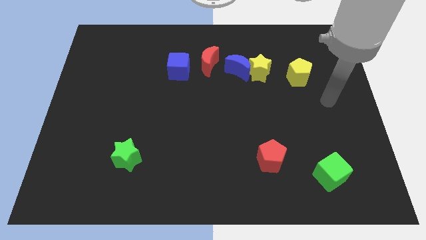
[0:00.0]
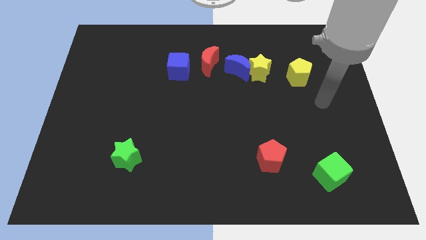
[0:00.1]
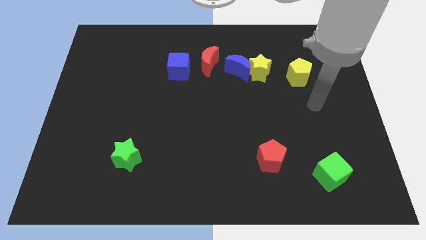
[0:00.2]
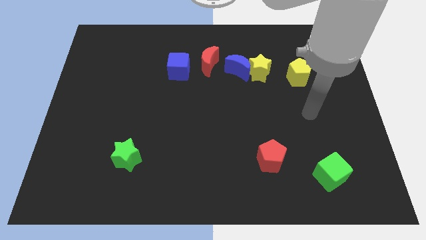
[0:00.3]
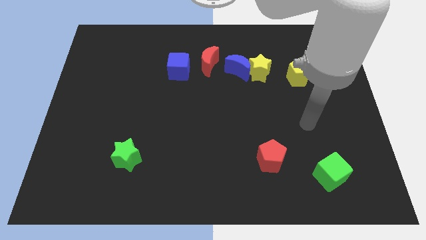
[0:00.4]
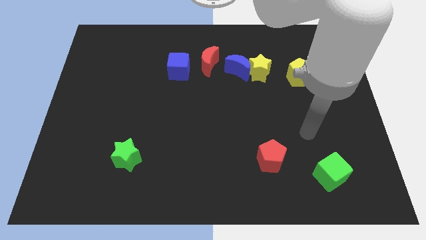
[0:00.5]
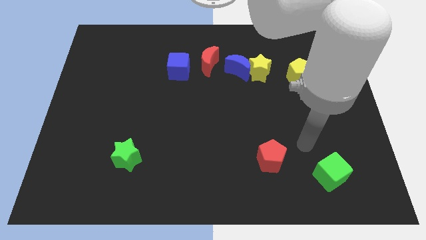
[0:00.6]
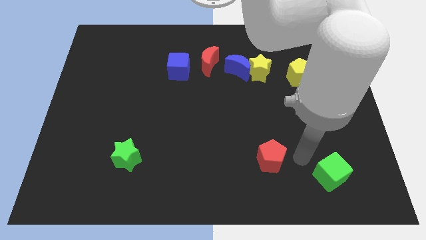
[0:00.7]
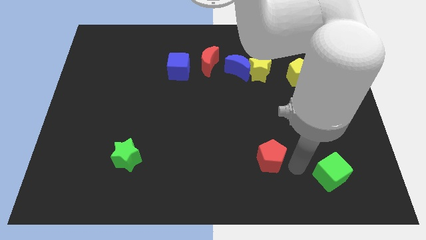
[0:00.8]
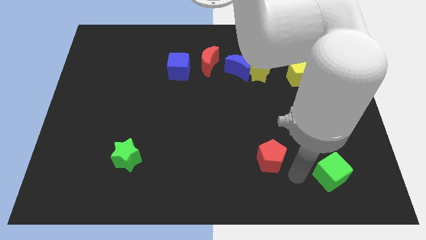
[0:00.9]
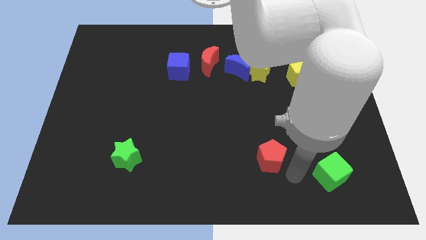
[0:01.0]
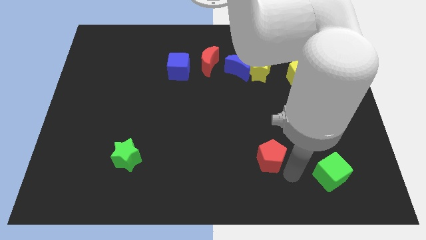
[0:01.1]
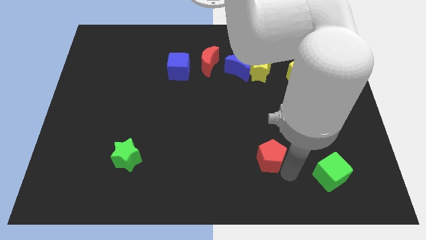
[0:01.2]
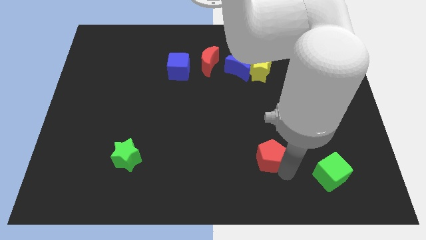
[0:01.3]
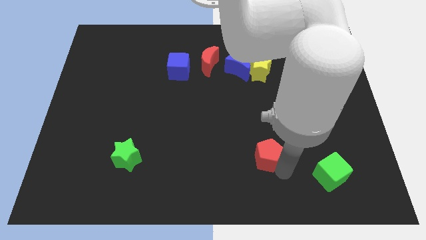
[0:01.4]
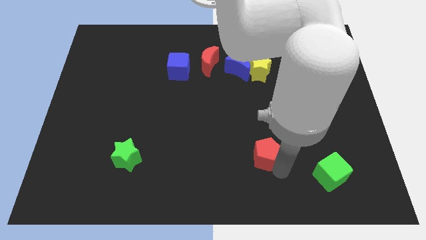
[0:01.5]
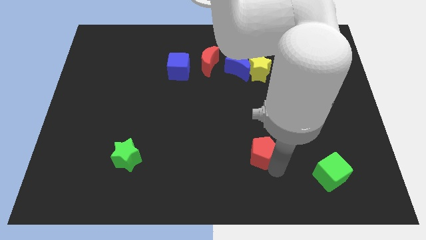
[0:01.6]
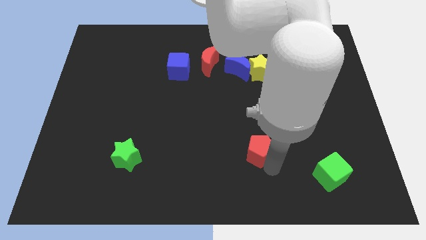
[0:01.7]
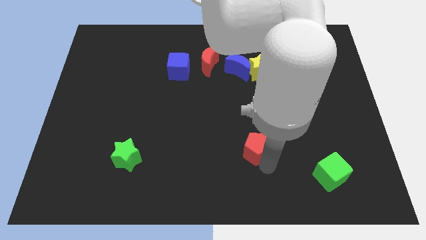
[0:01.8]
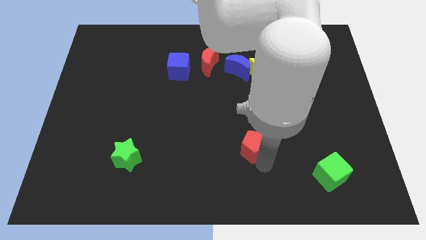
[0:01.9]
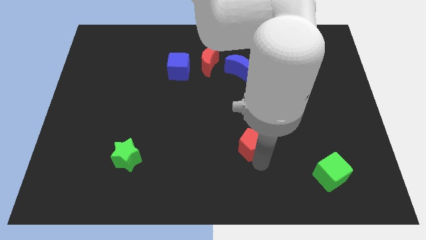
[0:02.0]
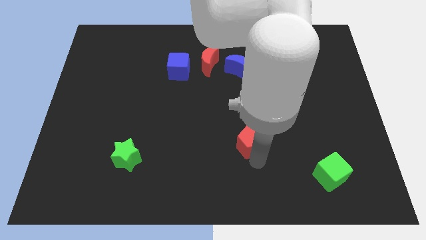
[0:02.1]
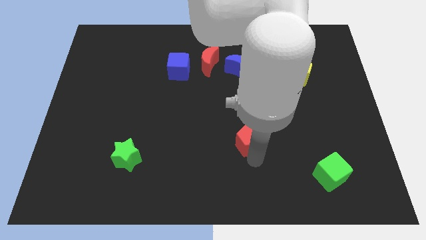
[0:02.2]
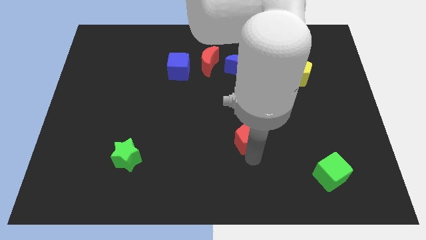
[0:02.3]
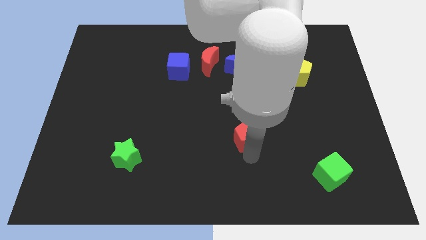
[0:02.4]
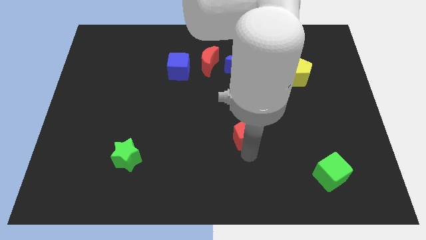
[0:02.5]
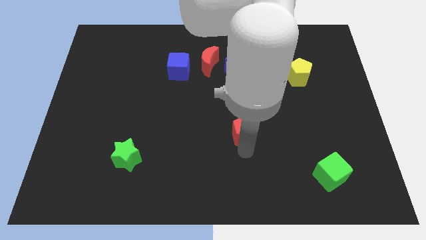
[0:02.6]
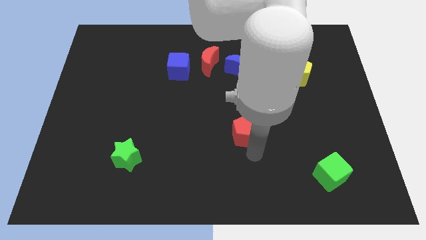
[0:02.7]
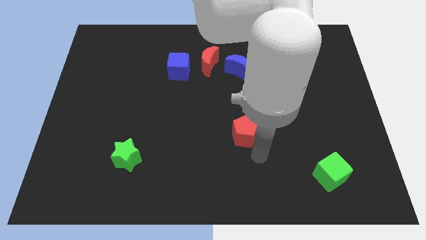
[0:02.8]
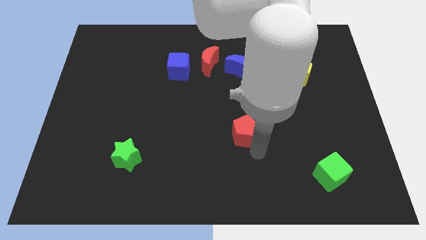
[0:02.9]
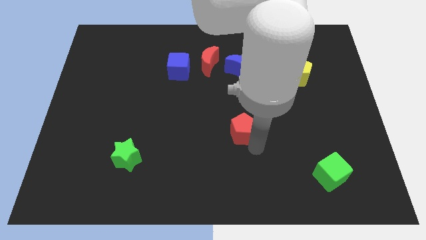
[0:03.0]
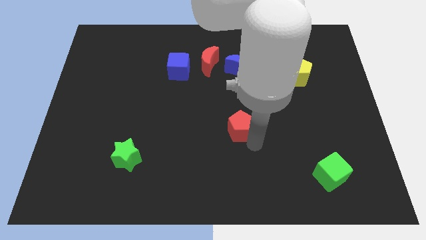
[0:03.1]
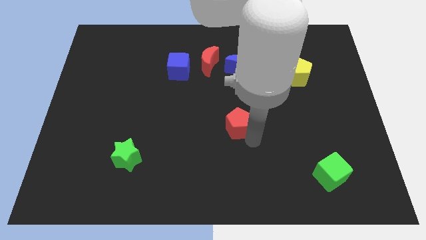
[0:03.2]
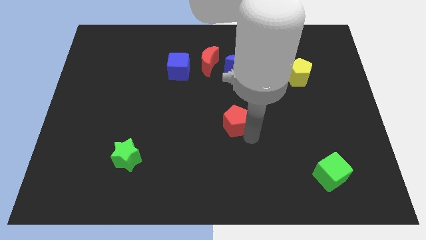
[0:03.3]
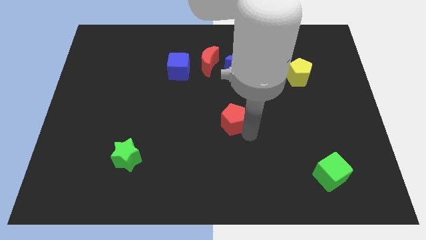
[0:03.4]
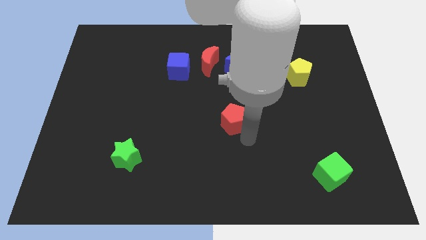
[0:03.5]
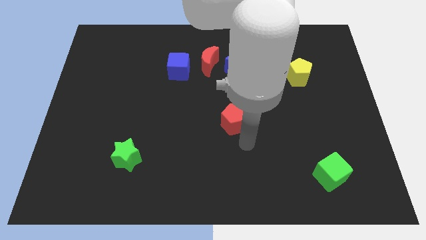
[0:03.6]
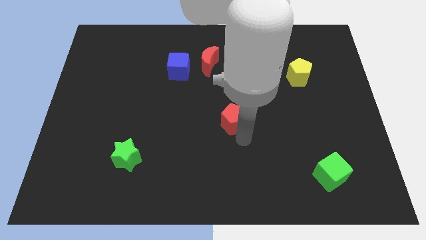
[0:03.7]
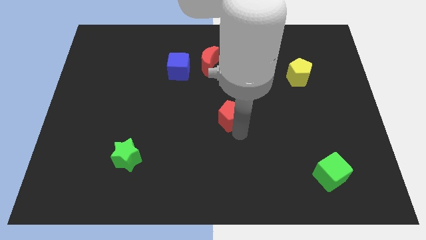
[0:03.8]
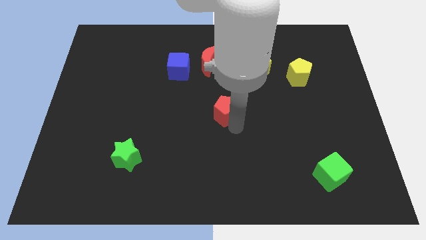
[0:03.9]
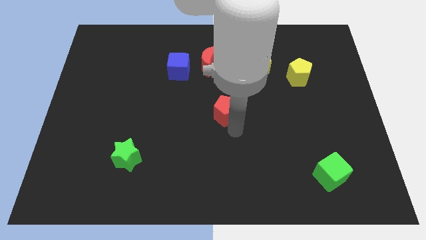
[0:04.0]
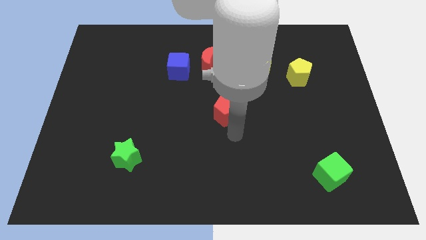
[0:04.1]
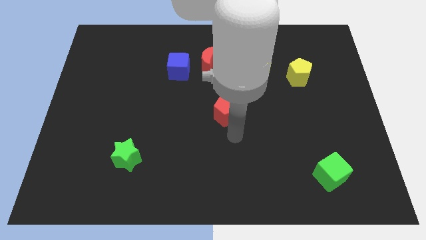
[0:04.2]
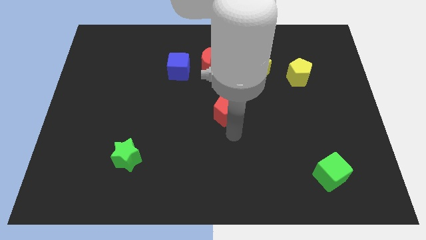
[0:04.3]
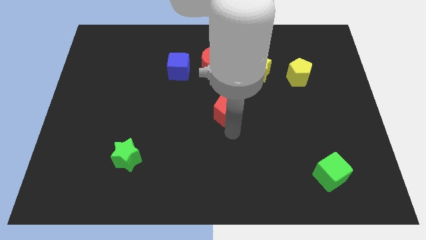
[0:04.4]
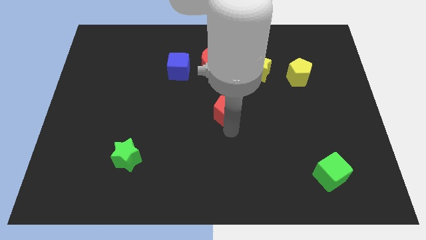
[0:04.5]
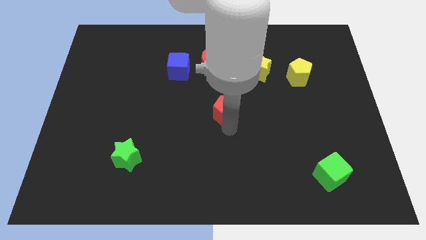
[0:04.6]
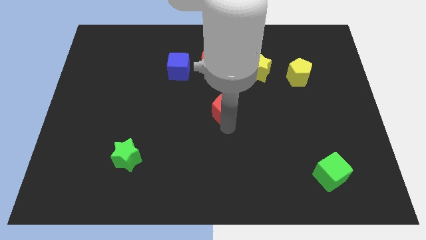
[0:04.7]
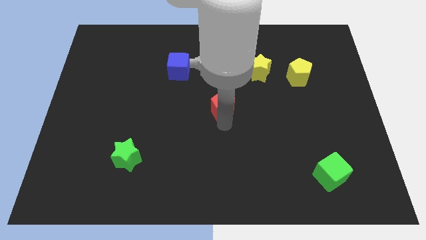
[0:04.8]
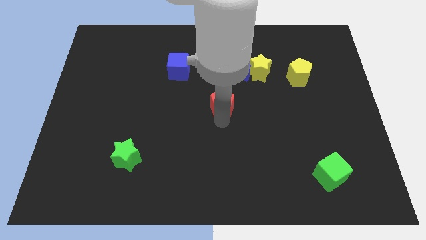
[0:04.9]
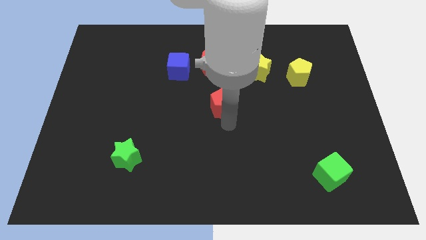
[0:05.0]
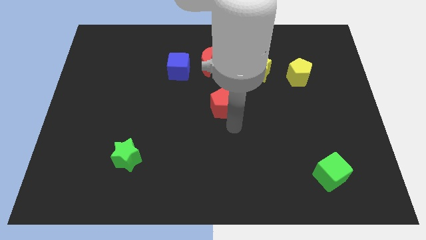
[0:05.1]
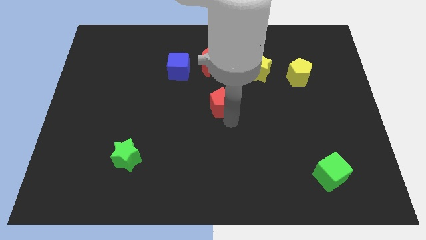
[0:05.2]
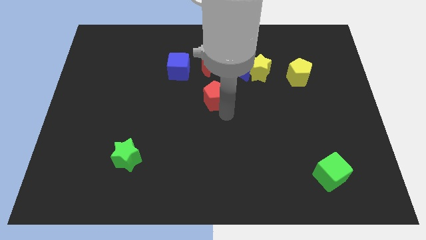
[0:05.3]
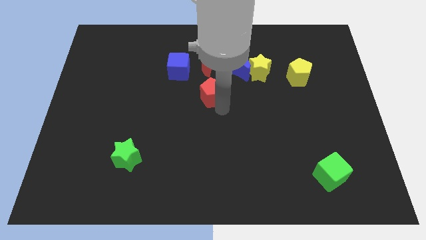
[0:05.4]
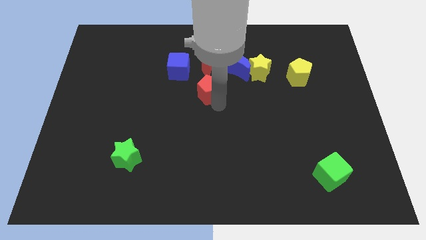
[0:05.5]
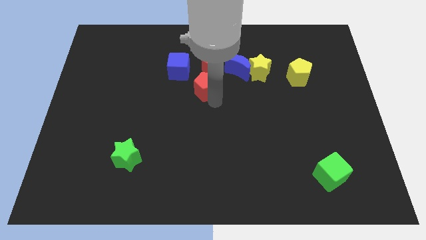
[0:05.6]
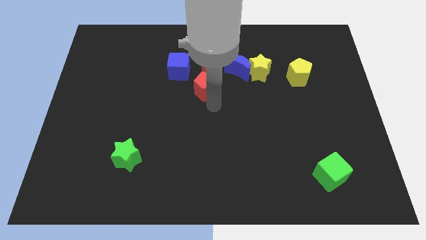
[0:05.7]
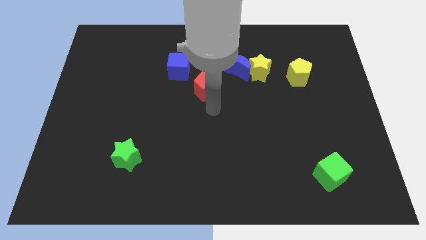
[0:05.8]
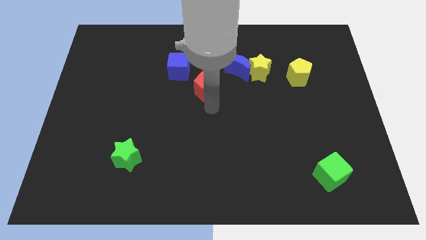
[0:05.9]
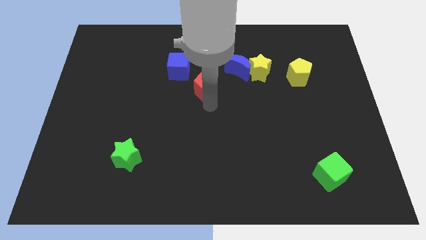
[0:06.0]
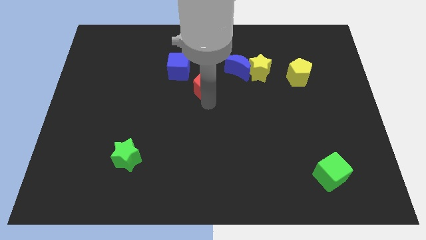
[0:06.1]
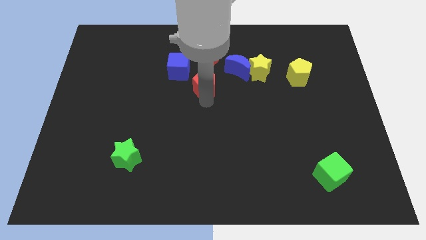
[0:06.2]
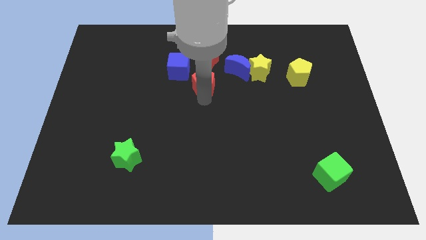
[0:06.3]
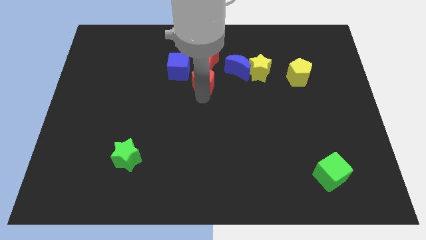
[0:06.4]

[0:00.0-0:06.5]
slide the red pentagon just left of the blue moon
